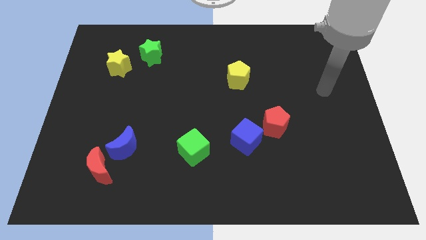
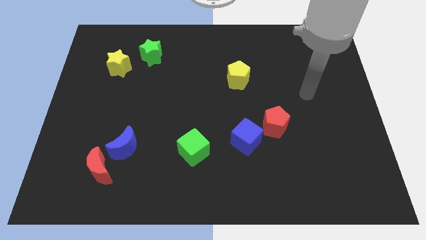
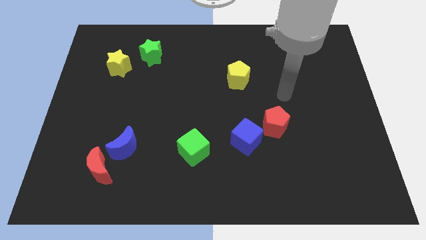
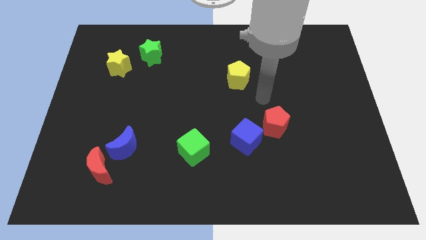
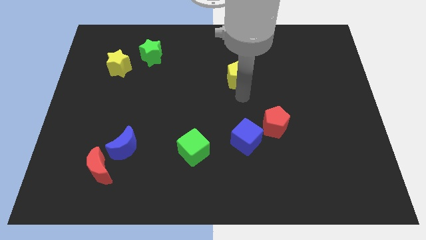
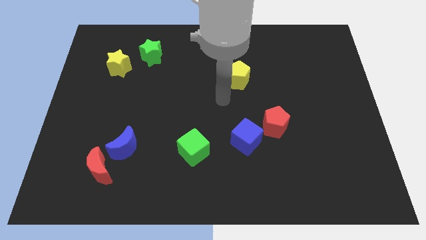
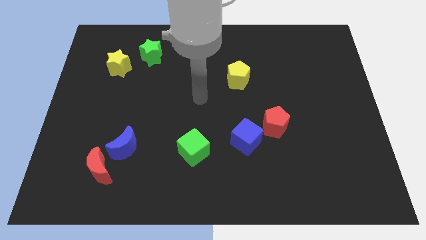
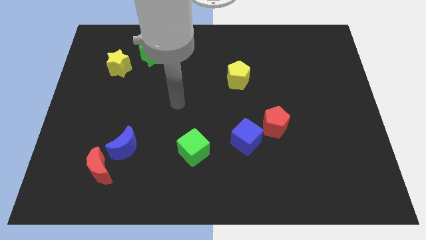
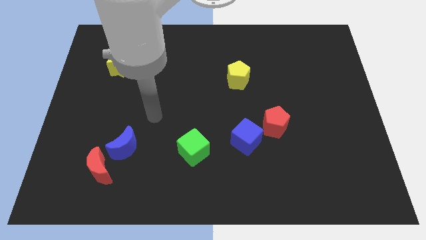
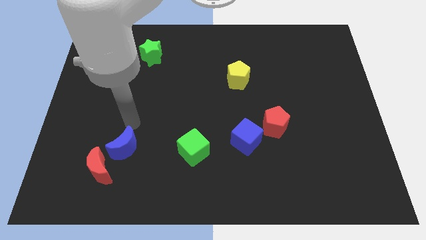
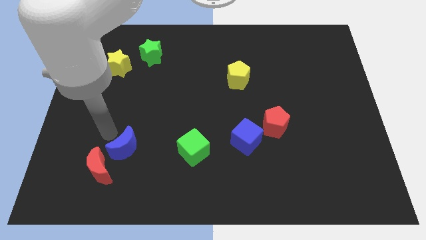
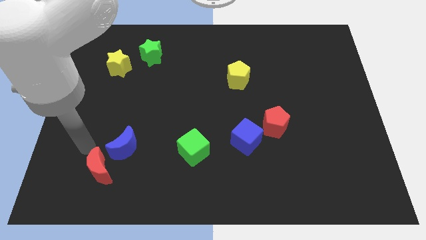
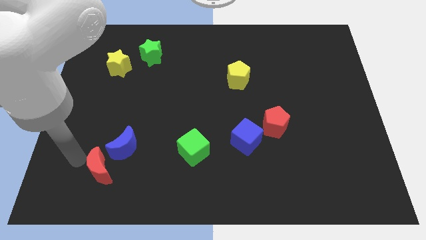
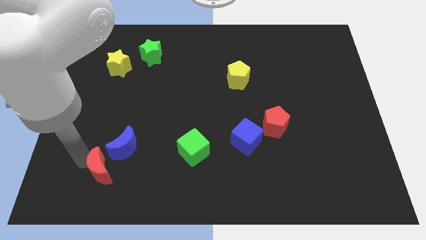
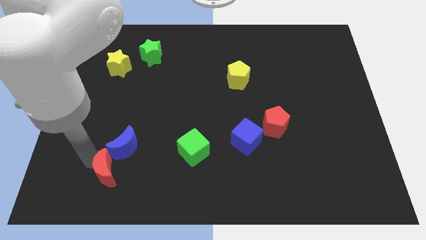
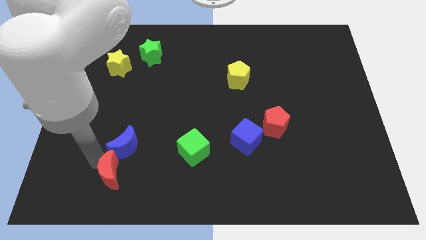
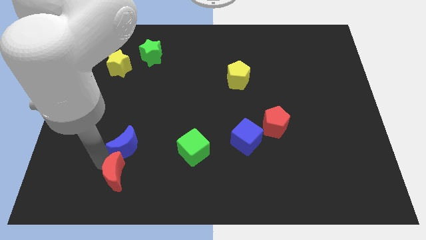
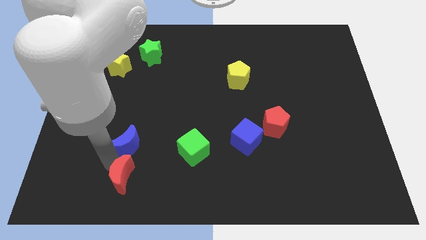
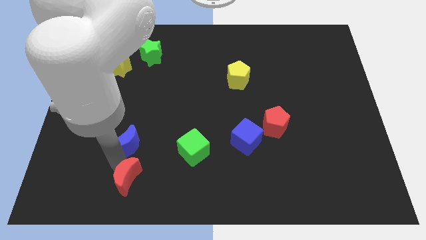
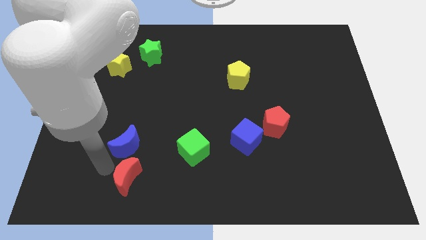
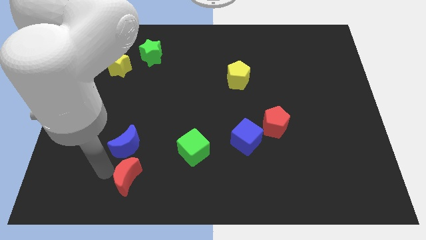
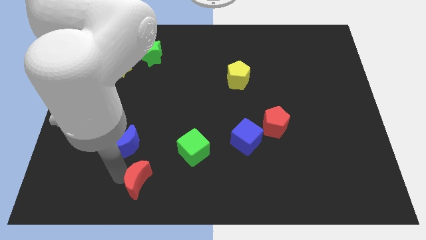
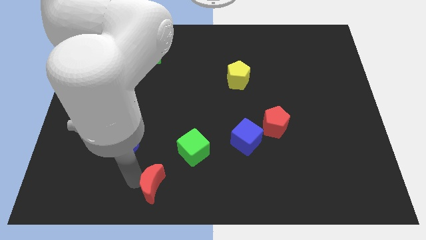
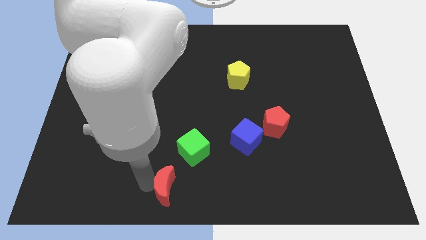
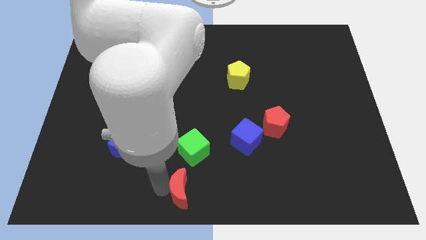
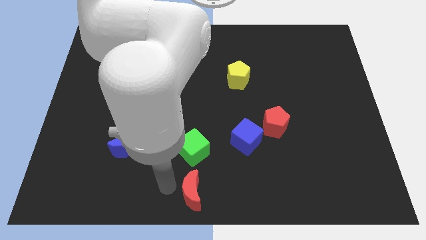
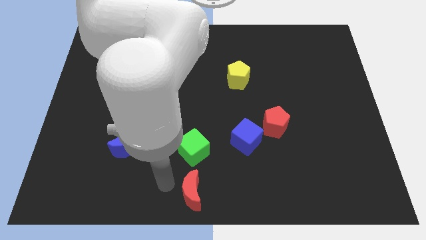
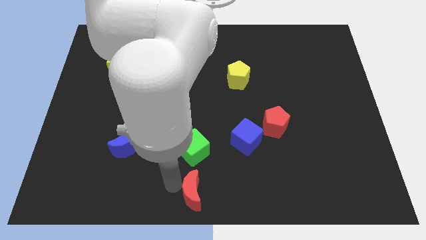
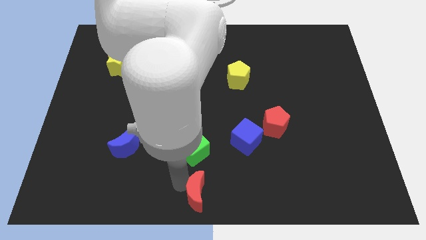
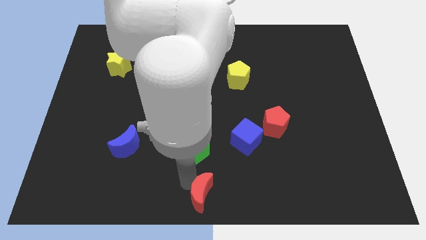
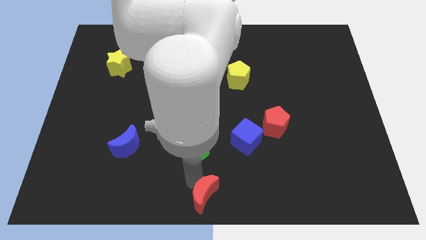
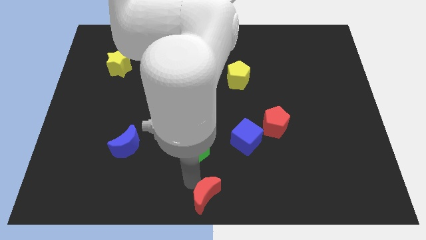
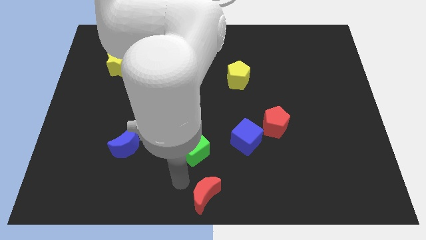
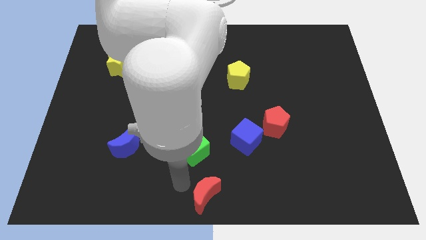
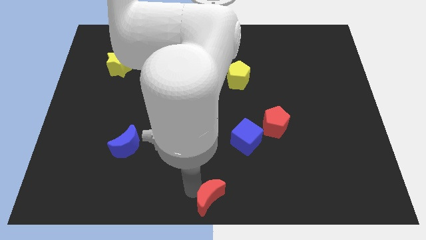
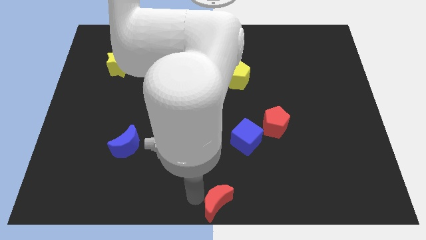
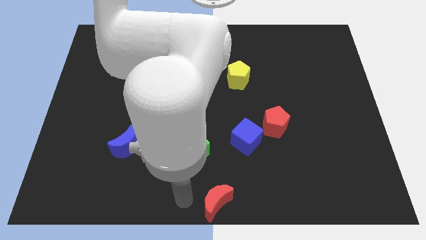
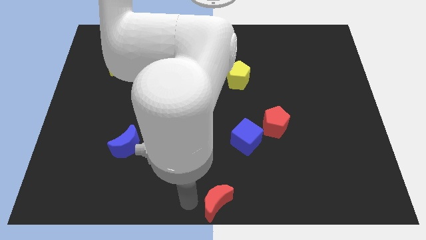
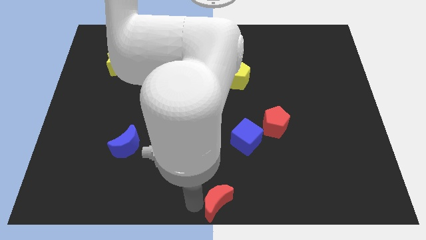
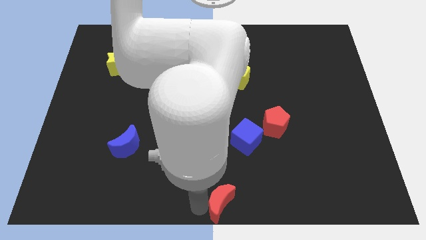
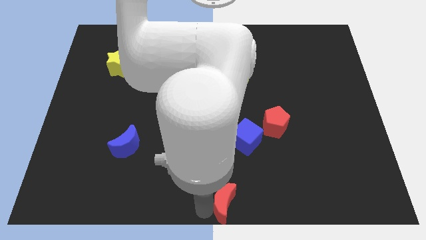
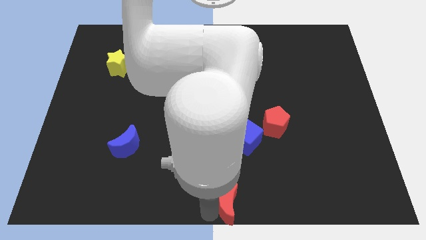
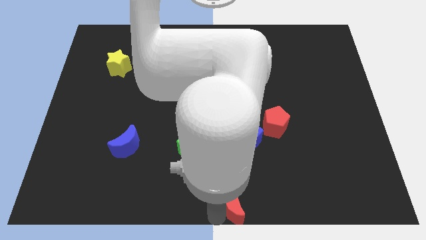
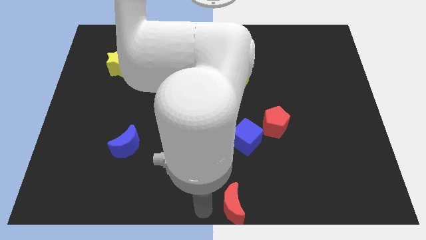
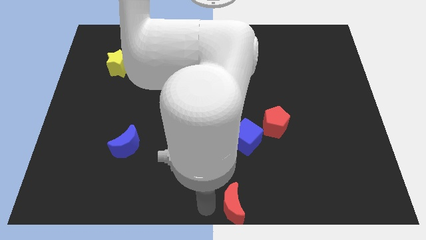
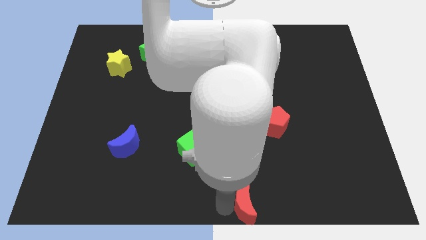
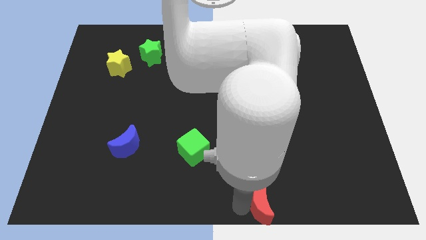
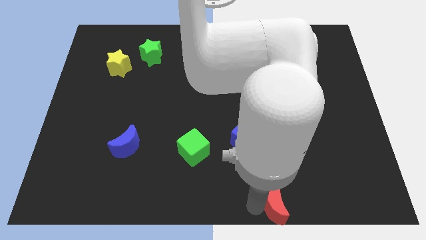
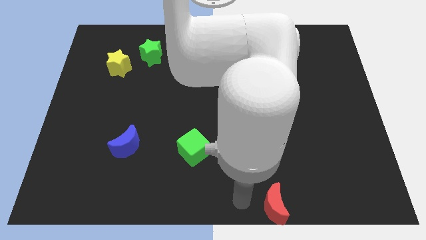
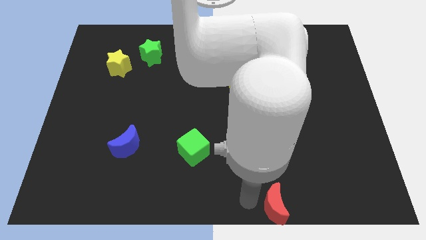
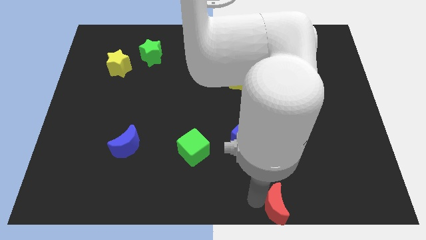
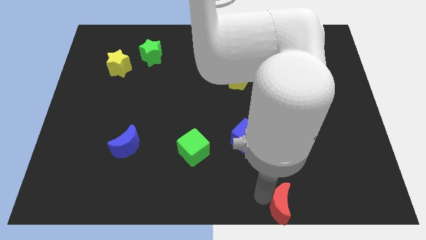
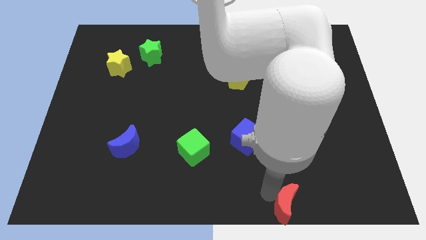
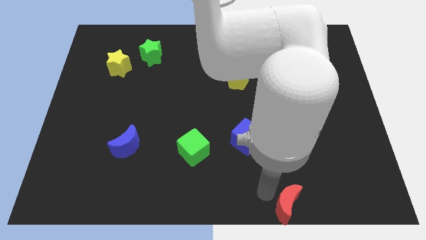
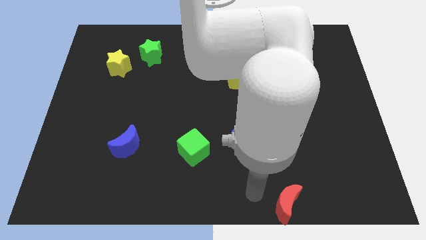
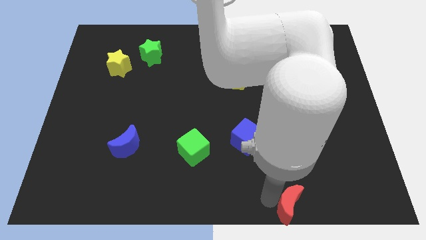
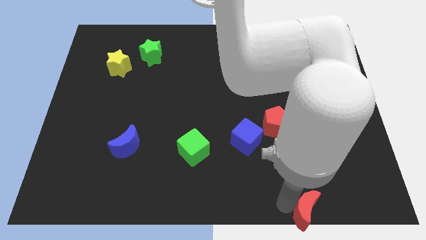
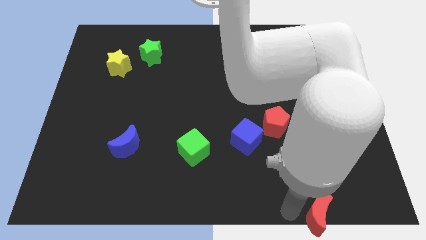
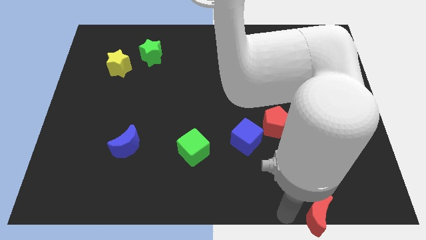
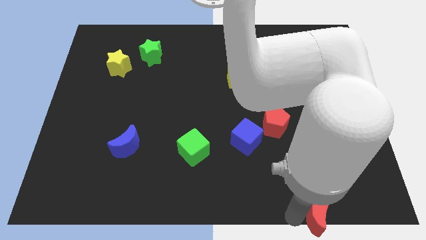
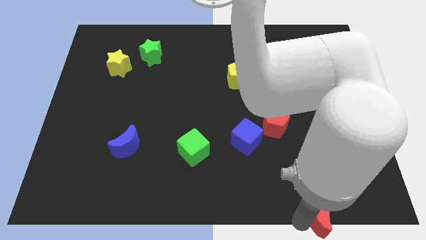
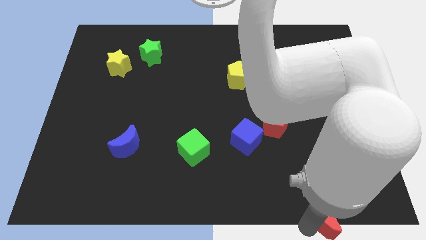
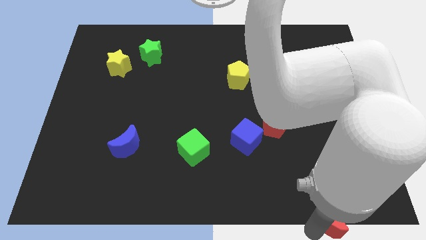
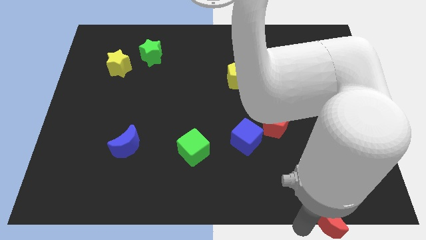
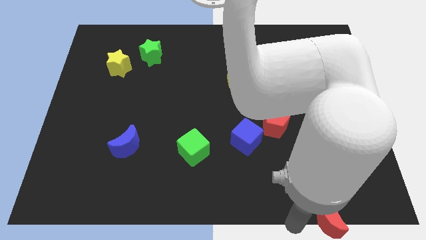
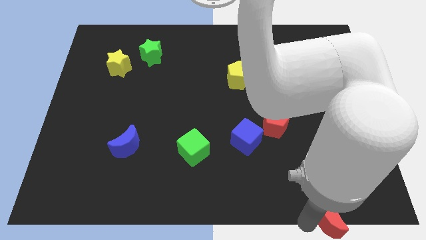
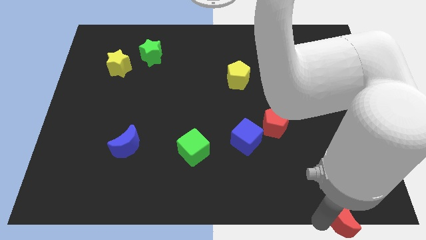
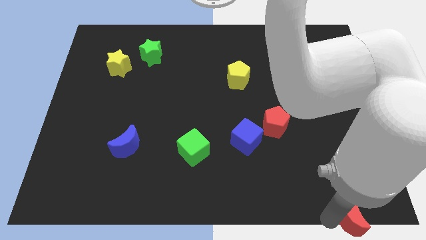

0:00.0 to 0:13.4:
slide the red moon to the lower right corner

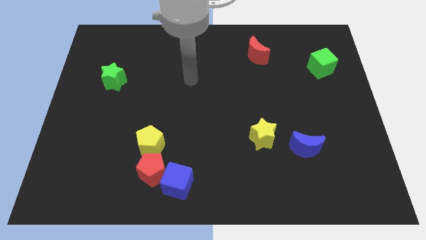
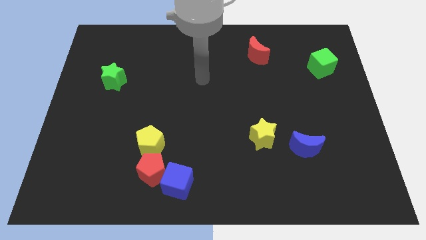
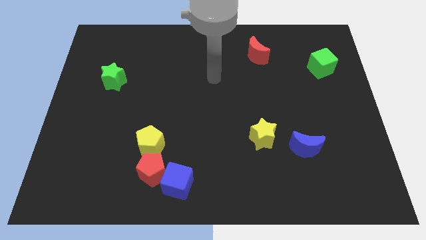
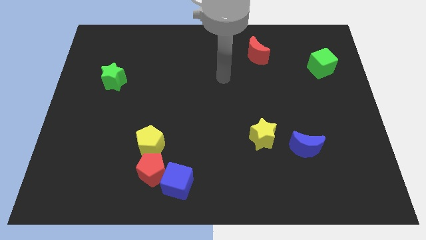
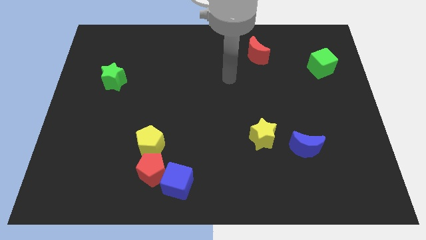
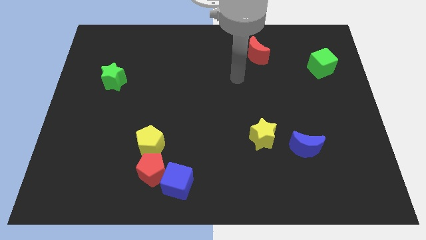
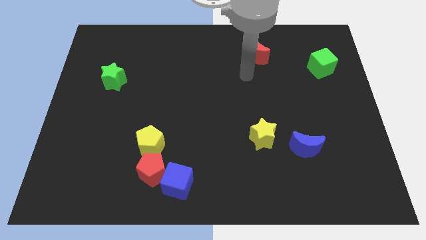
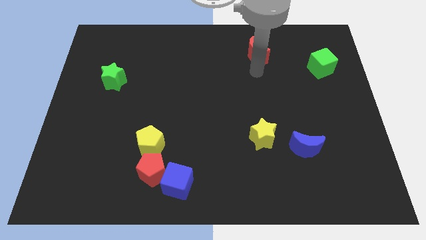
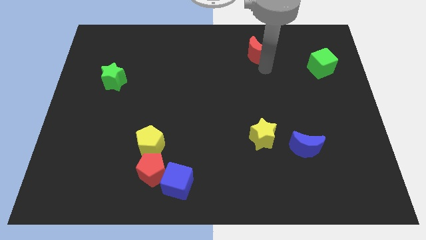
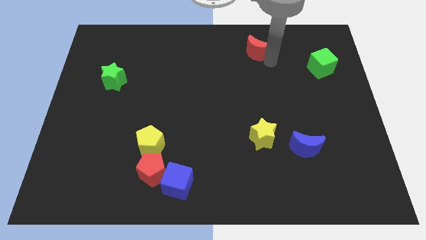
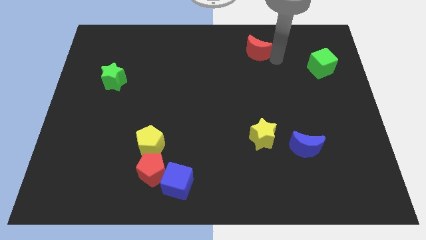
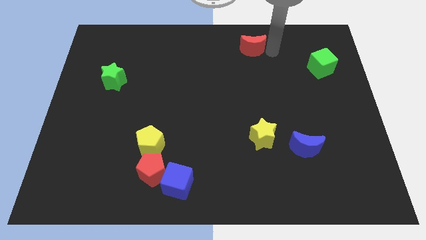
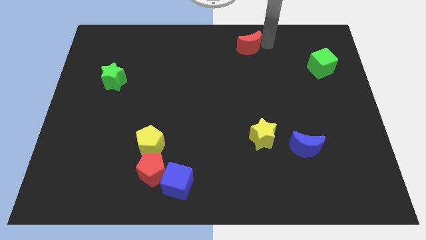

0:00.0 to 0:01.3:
put the red moon to the top side
